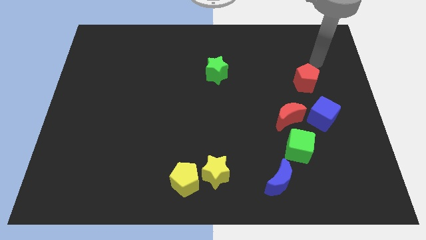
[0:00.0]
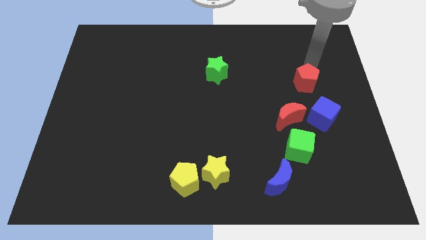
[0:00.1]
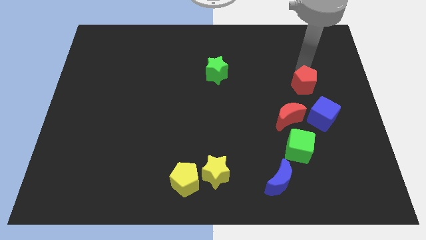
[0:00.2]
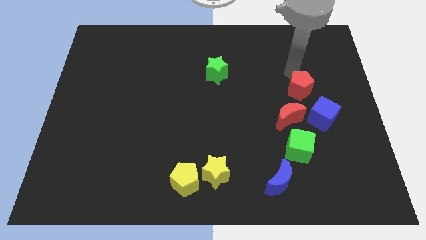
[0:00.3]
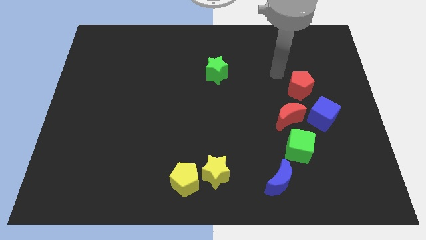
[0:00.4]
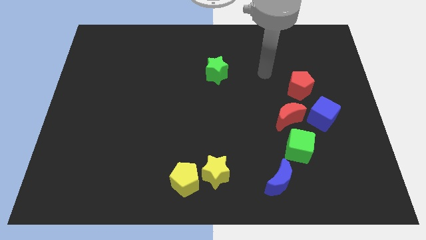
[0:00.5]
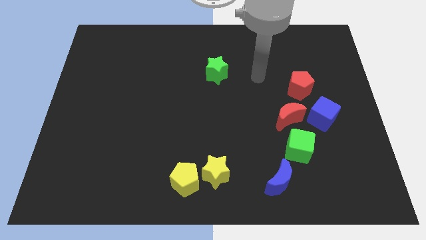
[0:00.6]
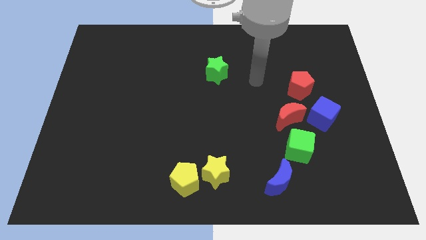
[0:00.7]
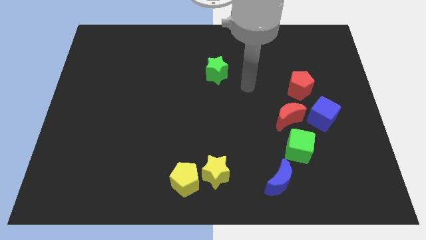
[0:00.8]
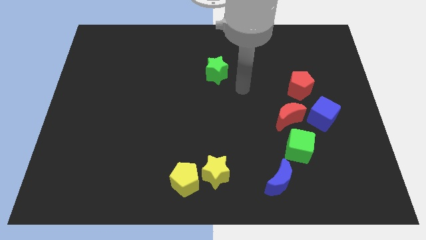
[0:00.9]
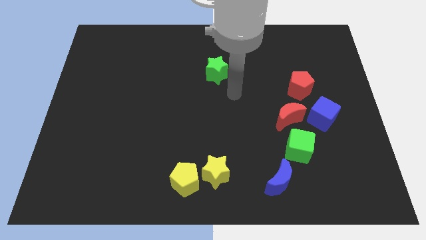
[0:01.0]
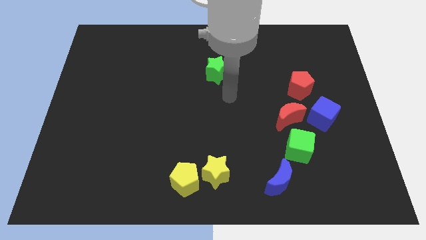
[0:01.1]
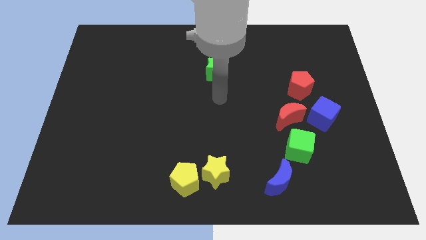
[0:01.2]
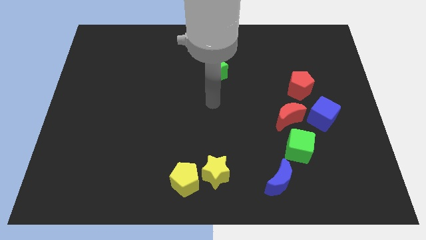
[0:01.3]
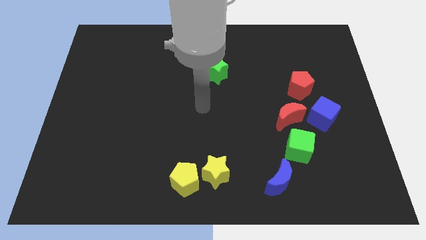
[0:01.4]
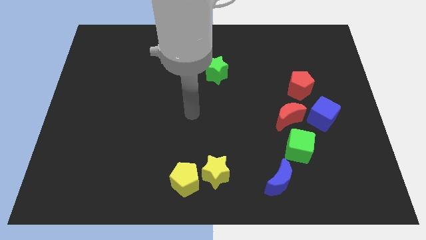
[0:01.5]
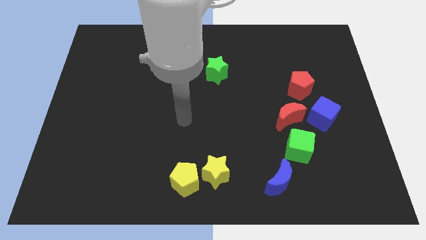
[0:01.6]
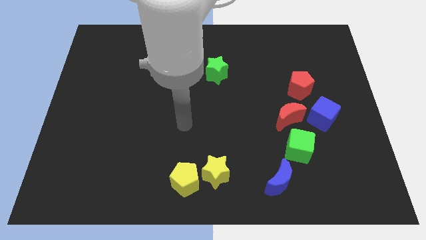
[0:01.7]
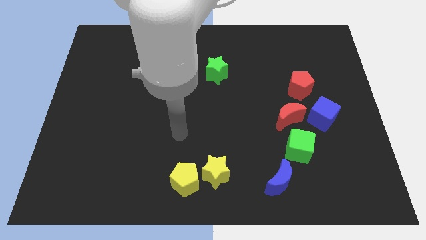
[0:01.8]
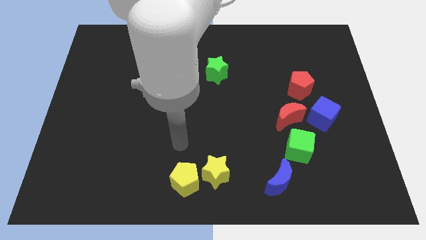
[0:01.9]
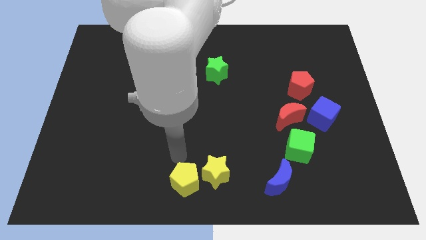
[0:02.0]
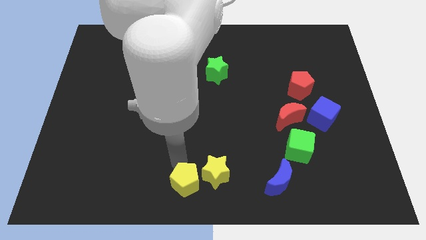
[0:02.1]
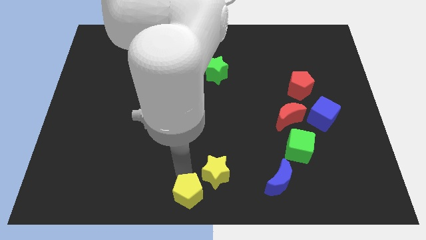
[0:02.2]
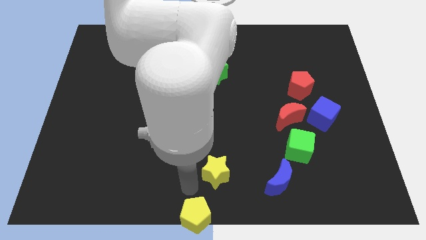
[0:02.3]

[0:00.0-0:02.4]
pull the yellow star apart from the yellow pentagon

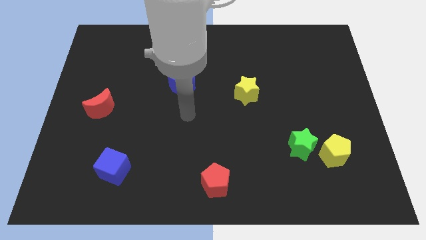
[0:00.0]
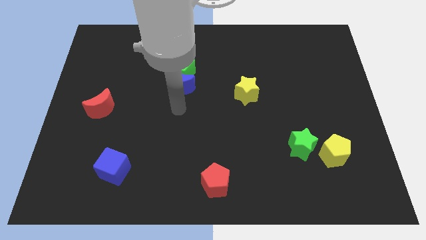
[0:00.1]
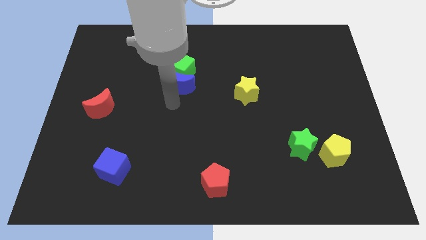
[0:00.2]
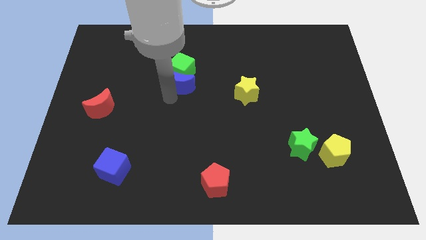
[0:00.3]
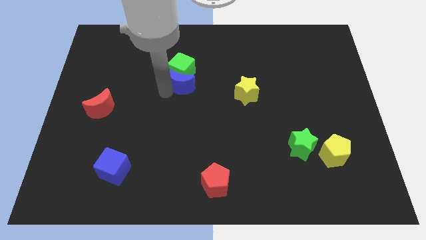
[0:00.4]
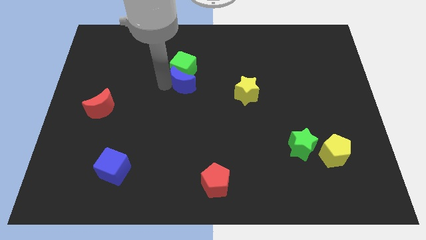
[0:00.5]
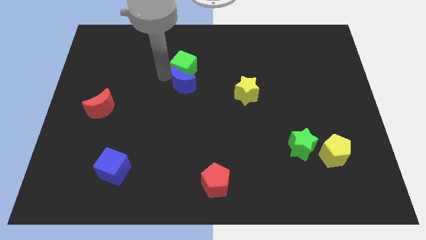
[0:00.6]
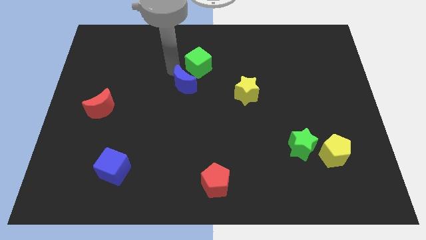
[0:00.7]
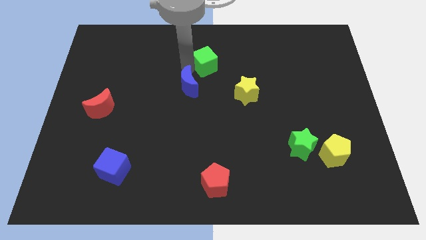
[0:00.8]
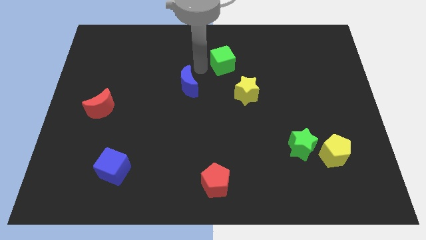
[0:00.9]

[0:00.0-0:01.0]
pull the blue moon apart from the green cube

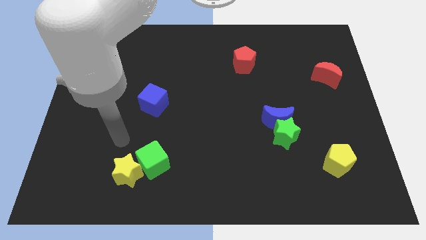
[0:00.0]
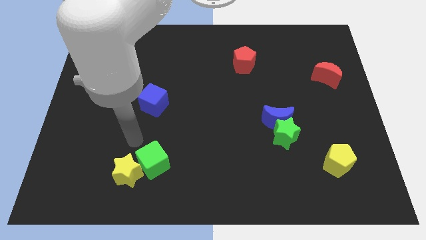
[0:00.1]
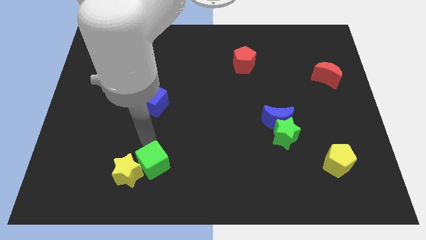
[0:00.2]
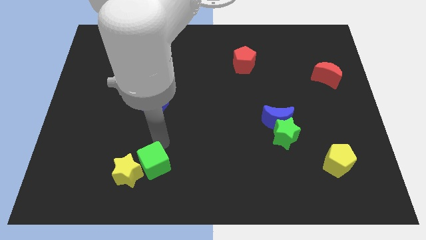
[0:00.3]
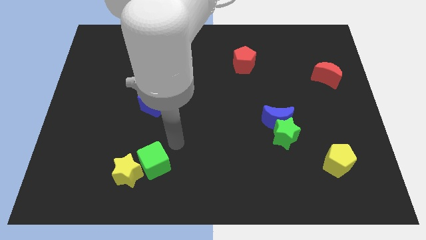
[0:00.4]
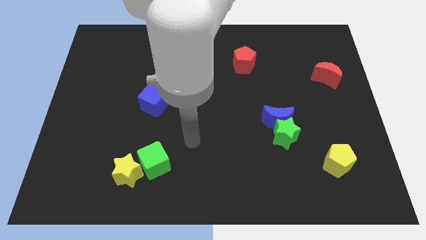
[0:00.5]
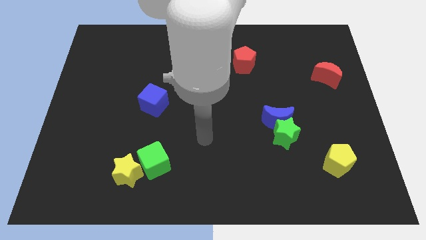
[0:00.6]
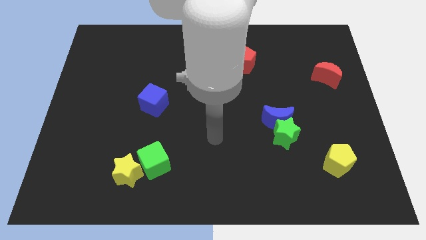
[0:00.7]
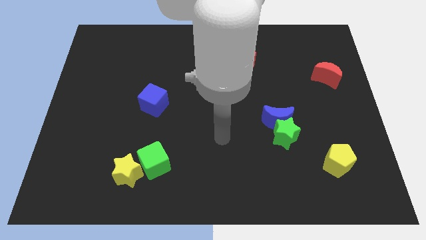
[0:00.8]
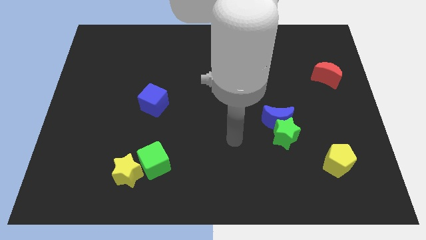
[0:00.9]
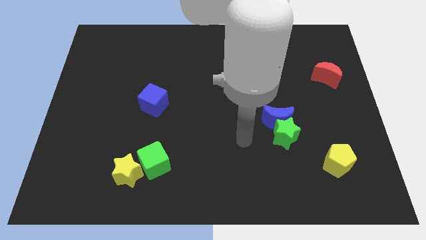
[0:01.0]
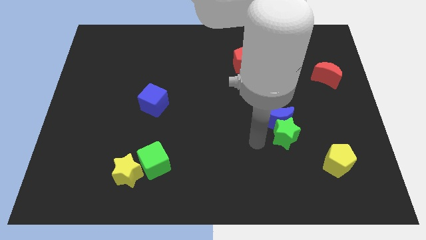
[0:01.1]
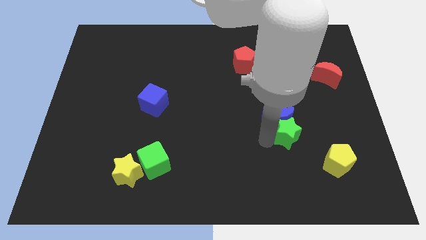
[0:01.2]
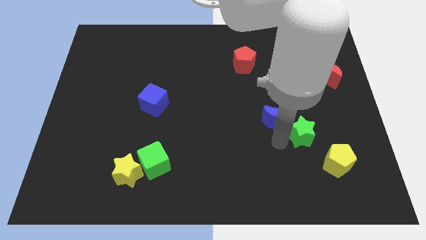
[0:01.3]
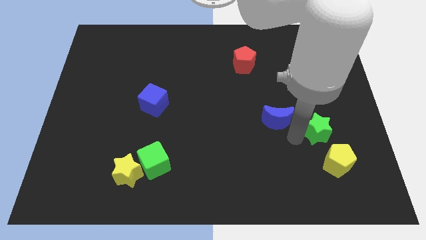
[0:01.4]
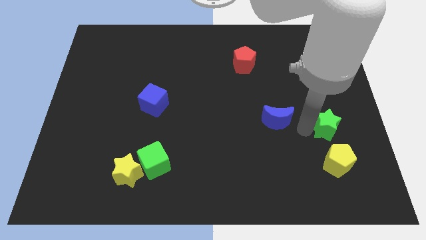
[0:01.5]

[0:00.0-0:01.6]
pull the blue moon apart from the green star

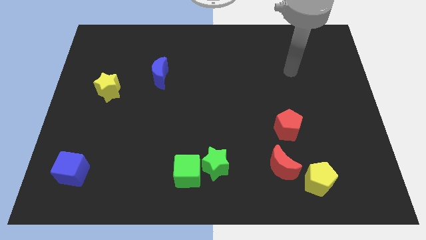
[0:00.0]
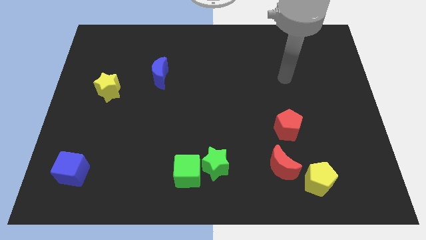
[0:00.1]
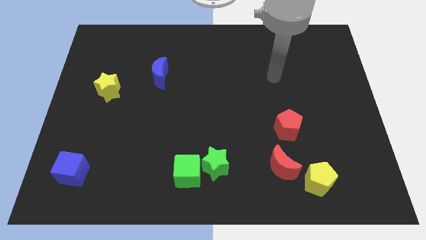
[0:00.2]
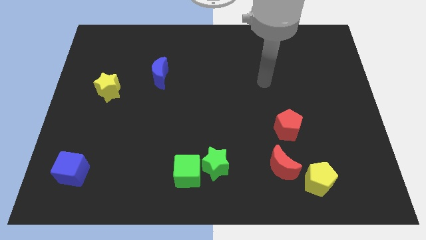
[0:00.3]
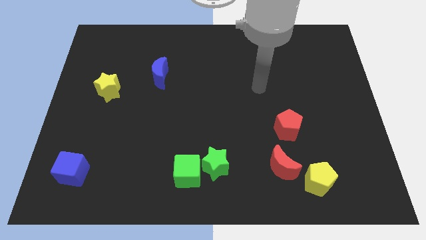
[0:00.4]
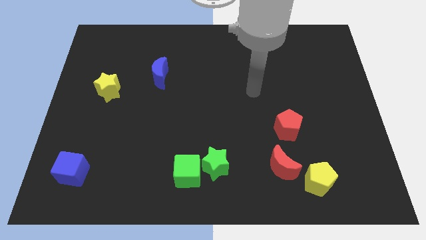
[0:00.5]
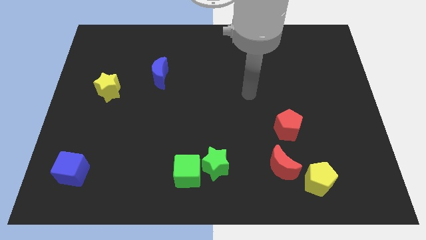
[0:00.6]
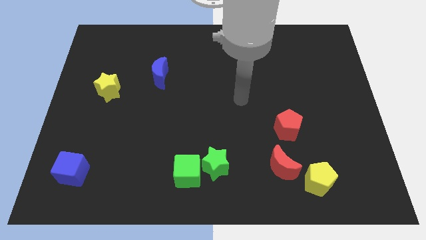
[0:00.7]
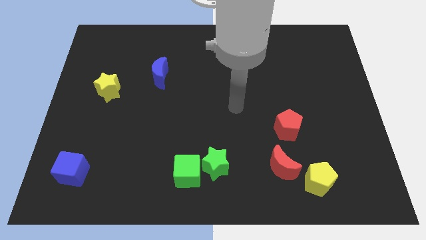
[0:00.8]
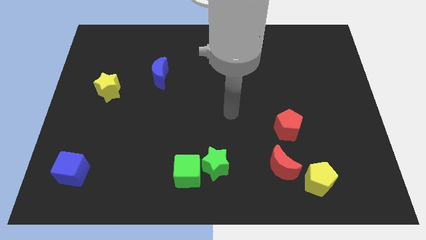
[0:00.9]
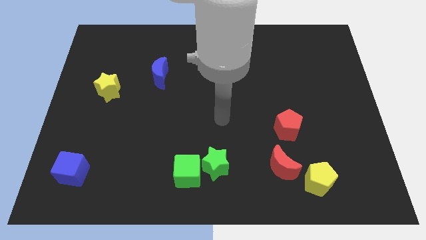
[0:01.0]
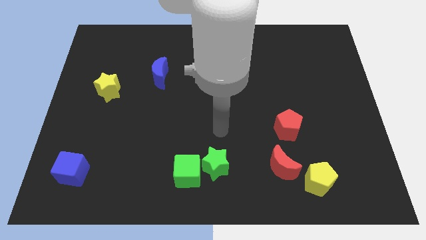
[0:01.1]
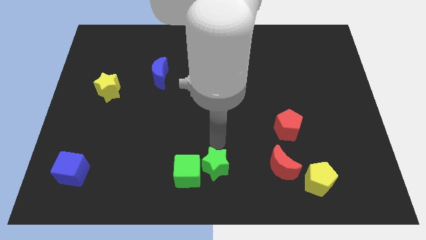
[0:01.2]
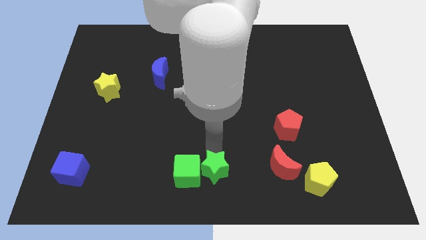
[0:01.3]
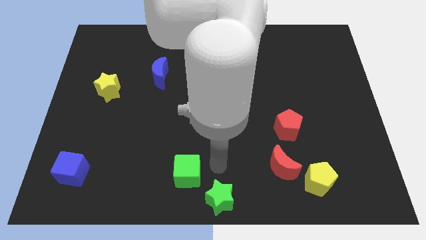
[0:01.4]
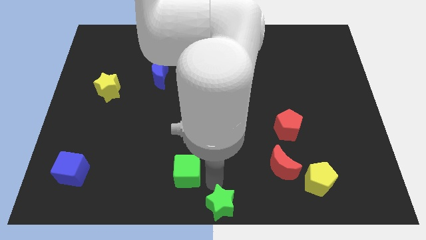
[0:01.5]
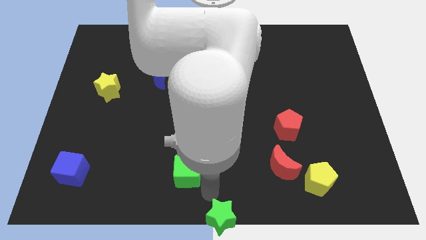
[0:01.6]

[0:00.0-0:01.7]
move the green cube away from the green star

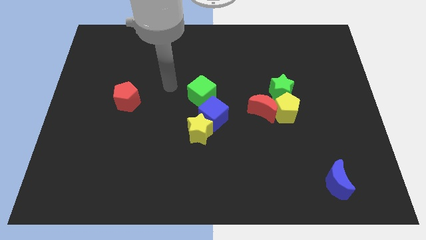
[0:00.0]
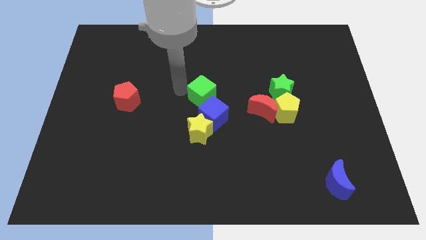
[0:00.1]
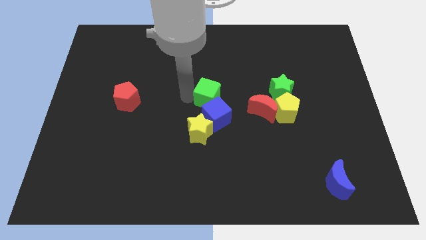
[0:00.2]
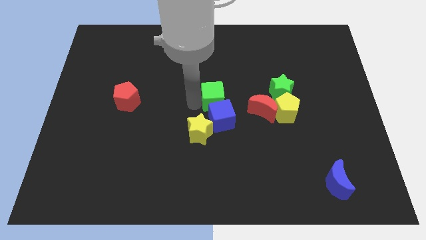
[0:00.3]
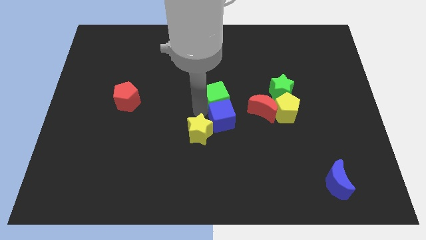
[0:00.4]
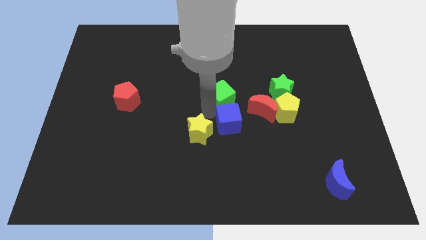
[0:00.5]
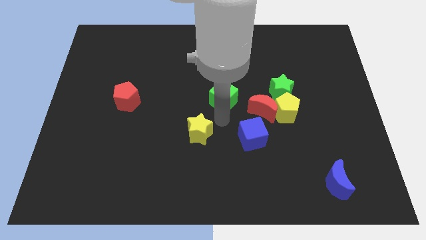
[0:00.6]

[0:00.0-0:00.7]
move the yellow star away from the blue cube

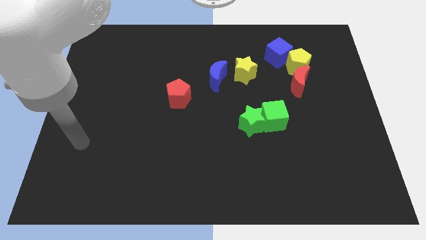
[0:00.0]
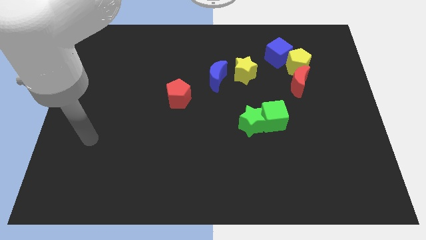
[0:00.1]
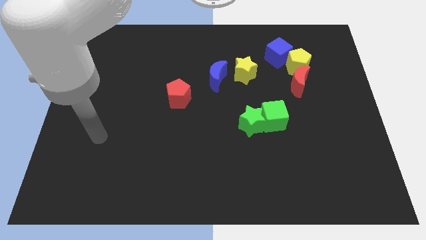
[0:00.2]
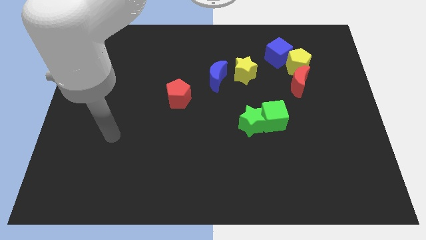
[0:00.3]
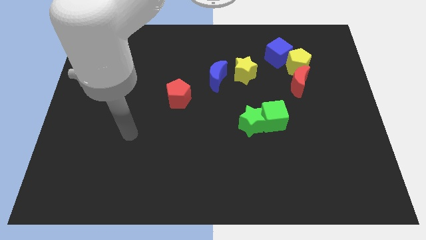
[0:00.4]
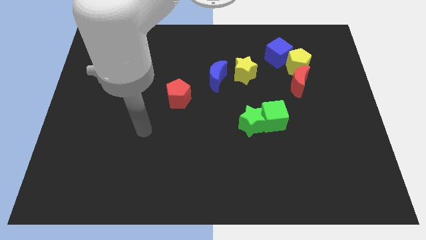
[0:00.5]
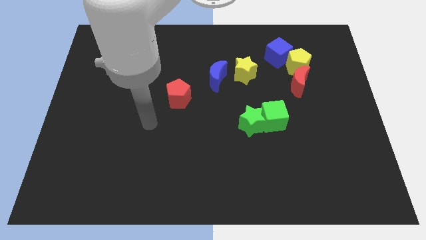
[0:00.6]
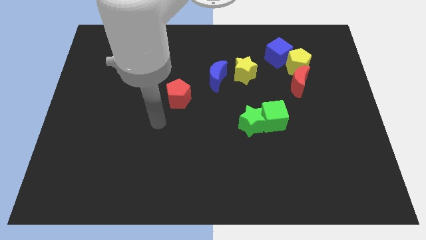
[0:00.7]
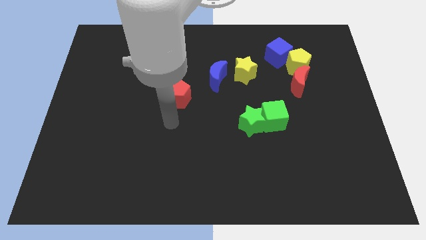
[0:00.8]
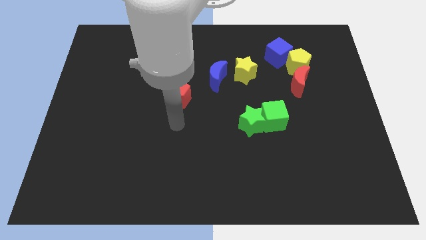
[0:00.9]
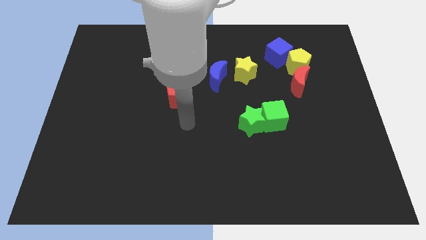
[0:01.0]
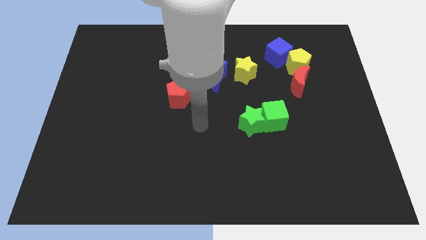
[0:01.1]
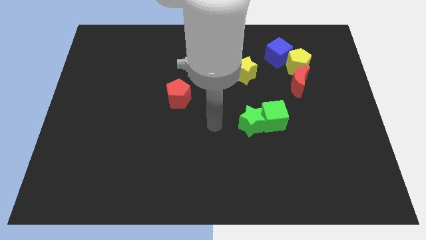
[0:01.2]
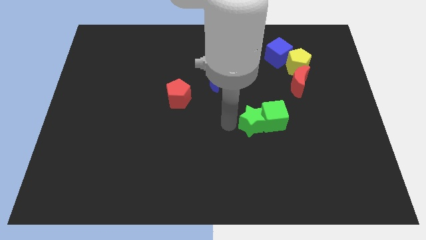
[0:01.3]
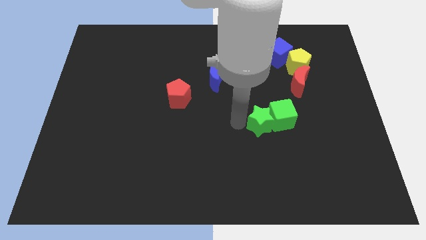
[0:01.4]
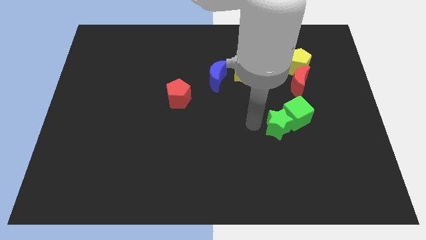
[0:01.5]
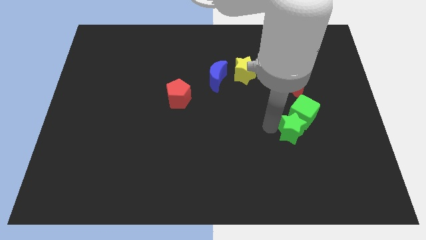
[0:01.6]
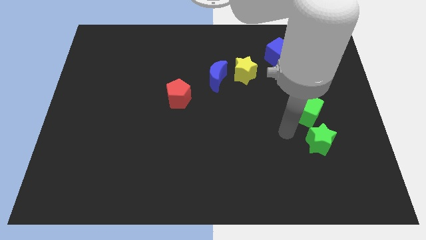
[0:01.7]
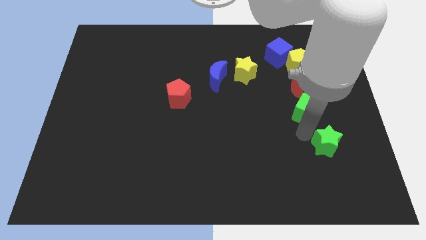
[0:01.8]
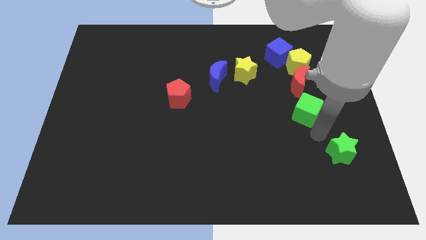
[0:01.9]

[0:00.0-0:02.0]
separate the green cube from the green star
